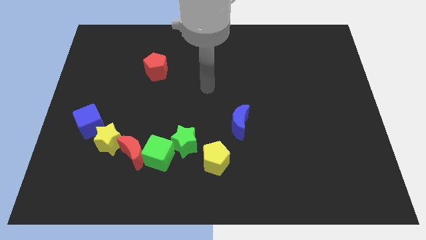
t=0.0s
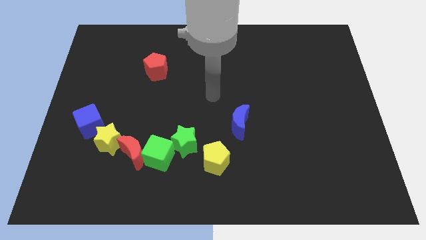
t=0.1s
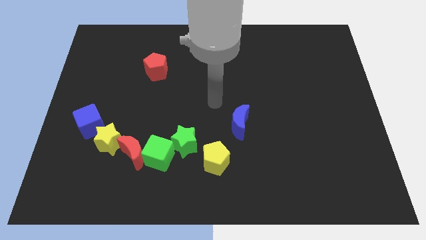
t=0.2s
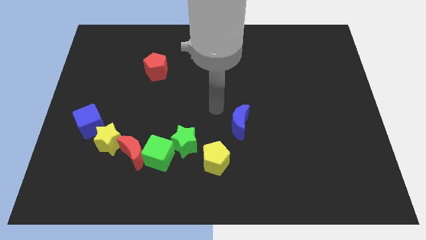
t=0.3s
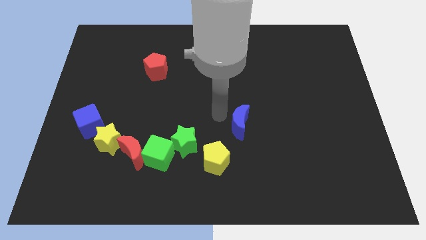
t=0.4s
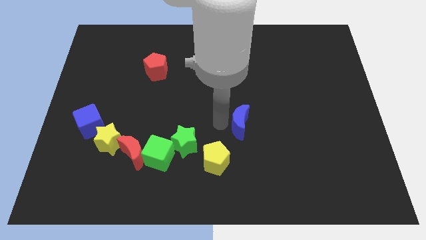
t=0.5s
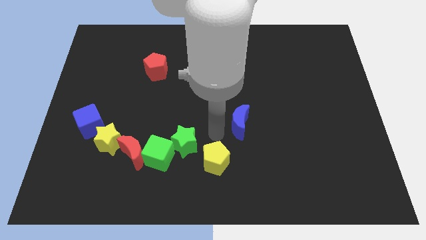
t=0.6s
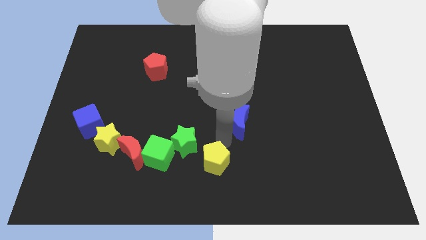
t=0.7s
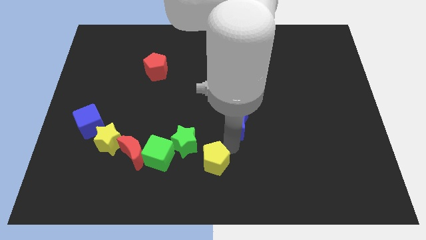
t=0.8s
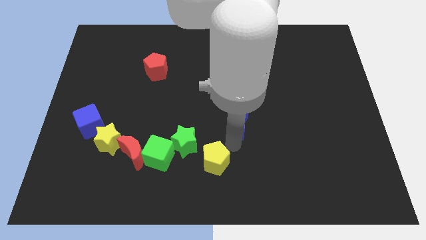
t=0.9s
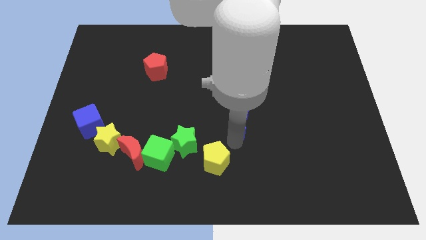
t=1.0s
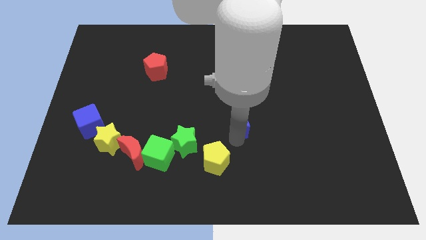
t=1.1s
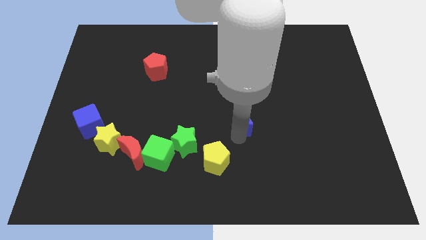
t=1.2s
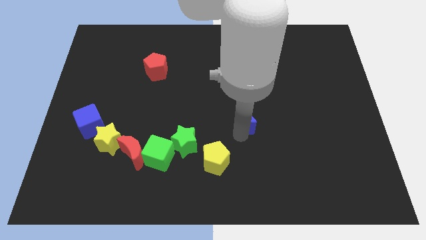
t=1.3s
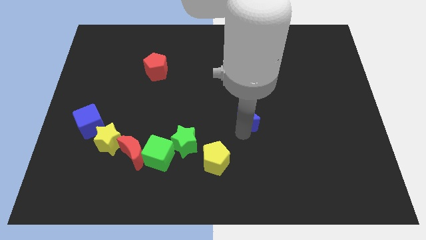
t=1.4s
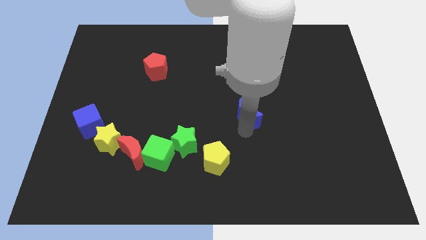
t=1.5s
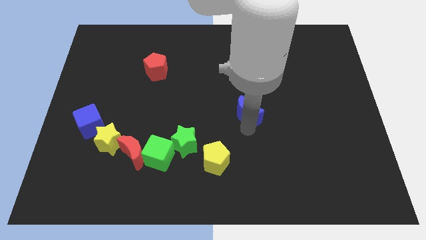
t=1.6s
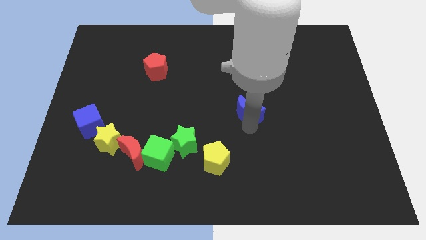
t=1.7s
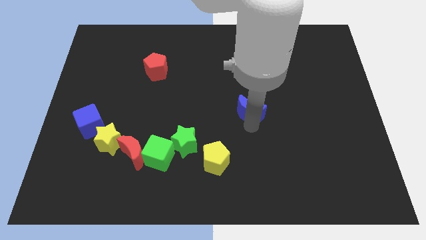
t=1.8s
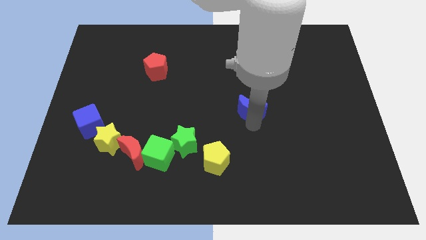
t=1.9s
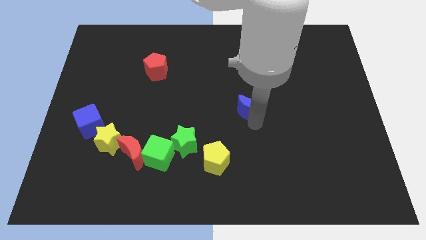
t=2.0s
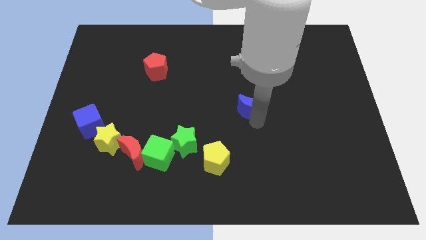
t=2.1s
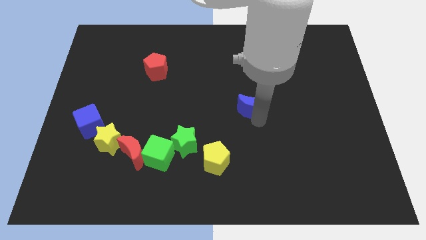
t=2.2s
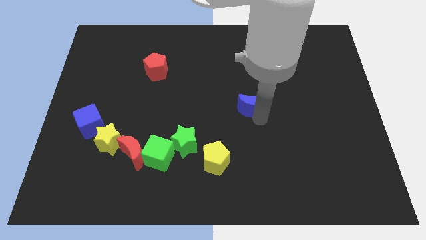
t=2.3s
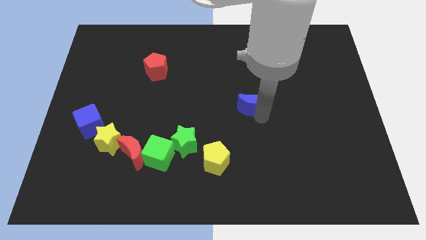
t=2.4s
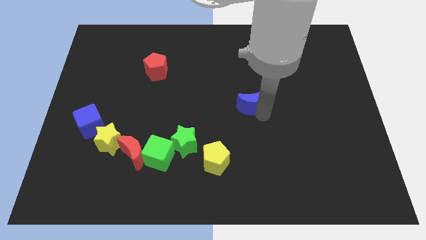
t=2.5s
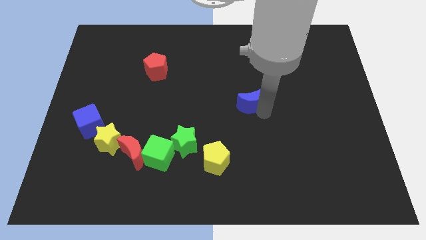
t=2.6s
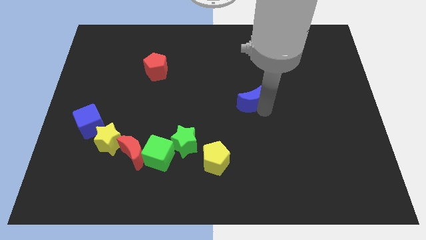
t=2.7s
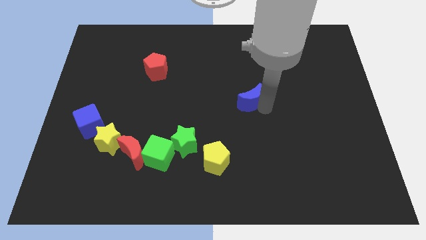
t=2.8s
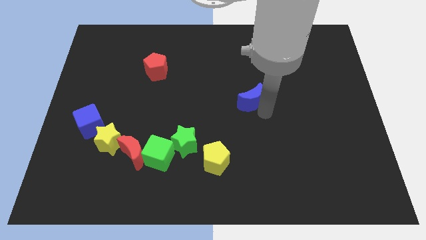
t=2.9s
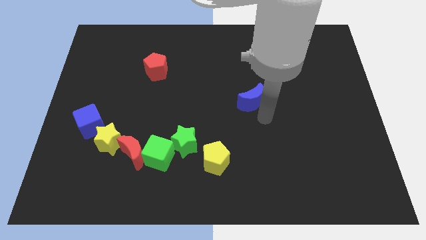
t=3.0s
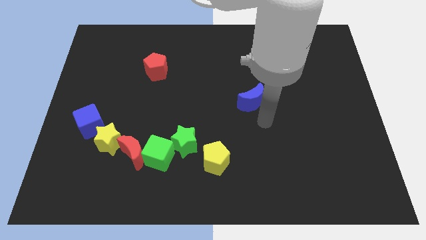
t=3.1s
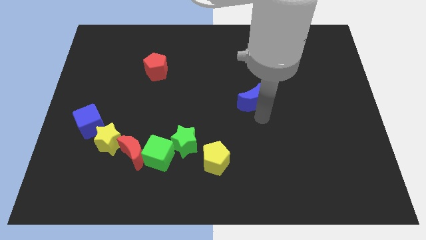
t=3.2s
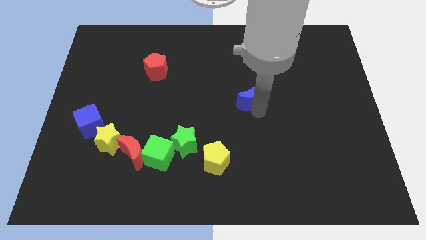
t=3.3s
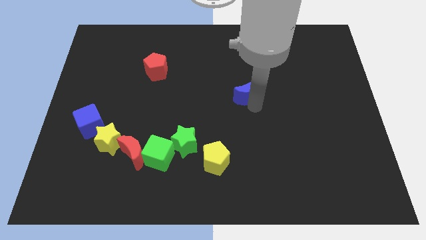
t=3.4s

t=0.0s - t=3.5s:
move the blue moon up a little bit

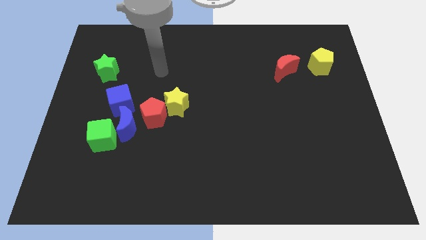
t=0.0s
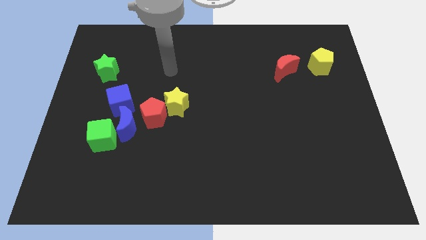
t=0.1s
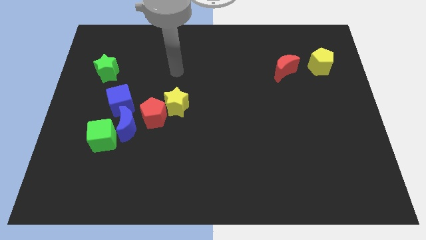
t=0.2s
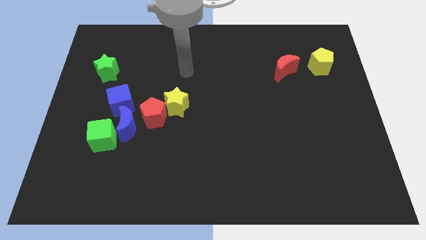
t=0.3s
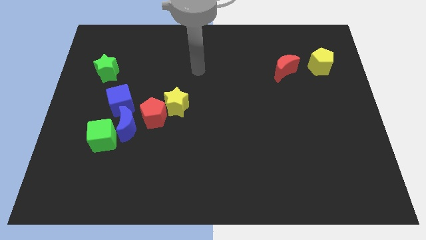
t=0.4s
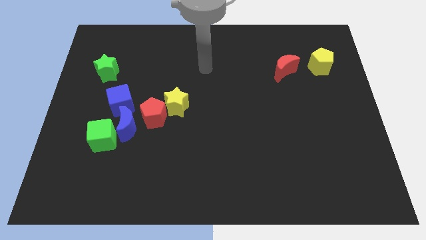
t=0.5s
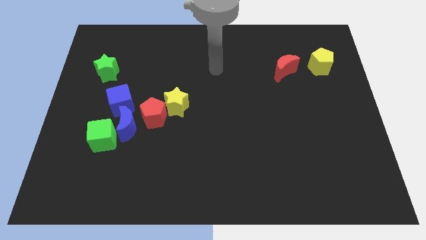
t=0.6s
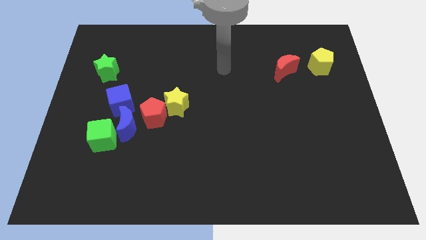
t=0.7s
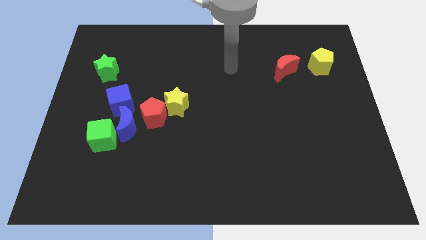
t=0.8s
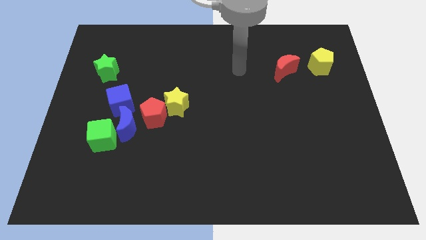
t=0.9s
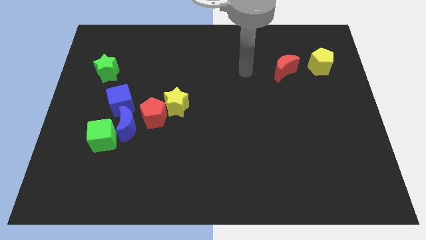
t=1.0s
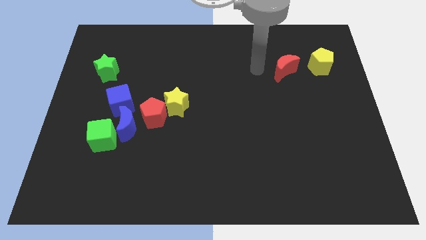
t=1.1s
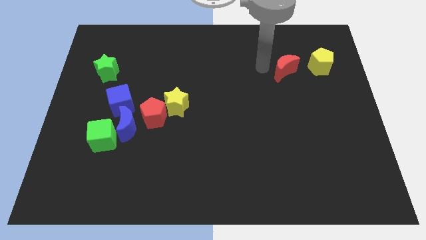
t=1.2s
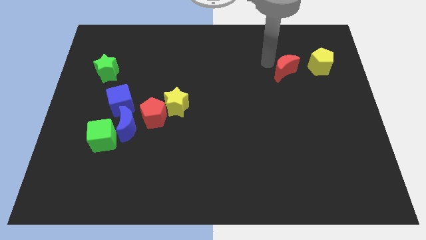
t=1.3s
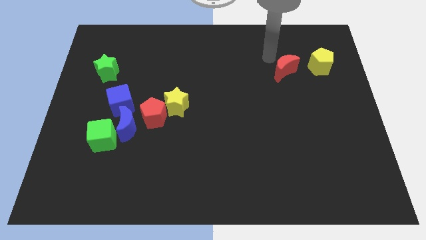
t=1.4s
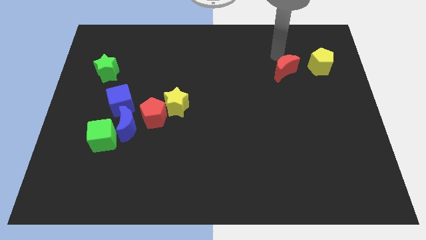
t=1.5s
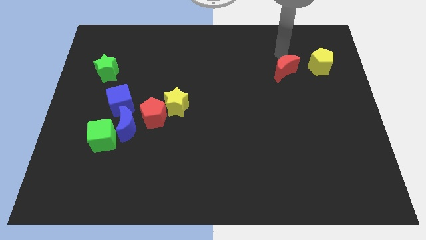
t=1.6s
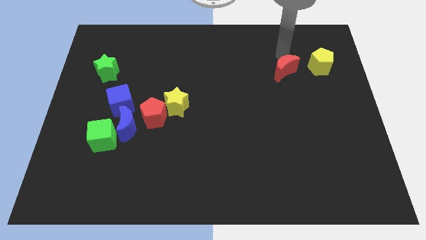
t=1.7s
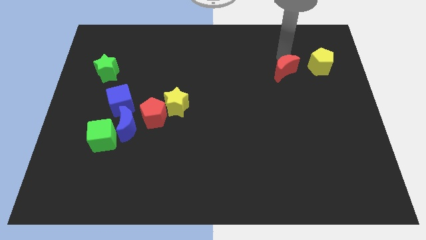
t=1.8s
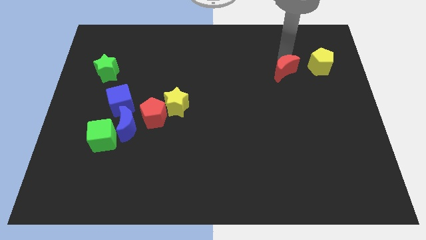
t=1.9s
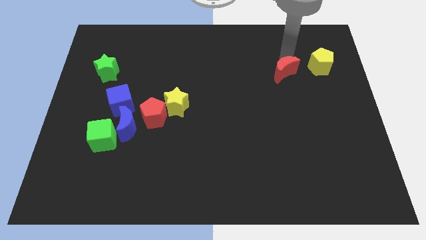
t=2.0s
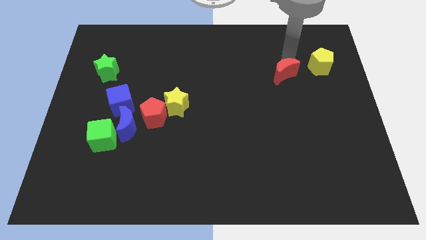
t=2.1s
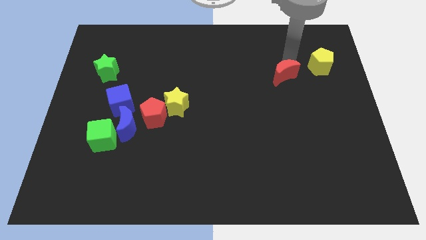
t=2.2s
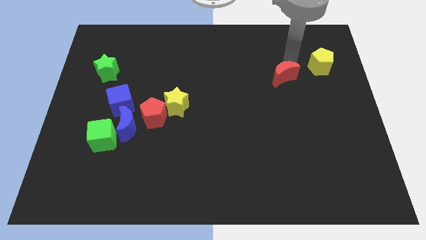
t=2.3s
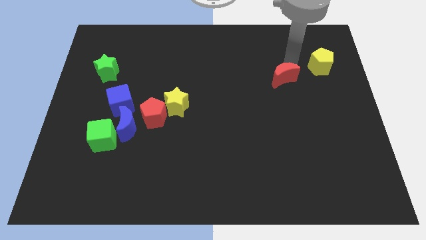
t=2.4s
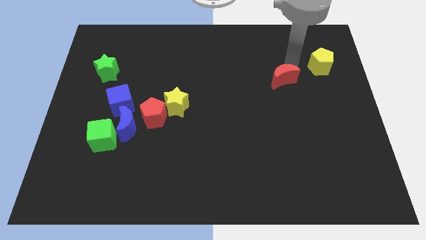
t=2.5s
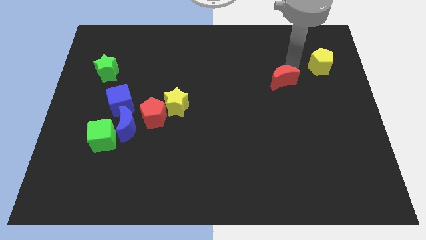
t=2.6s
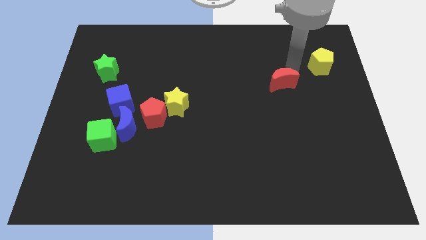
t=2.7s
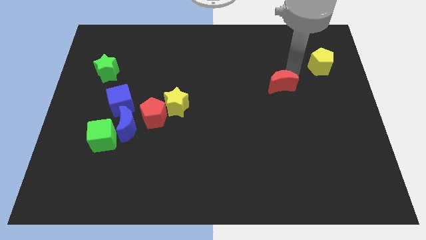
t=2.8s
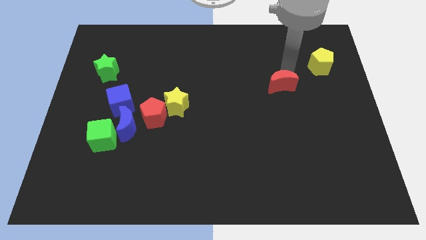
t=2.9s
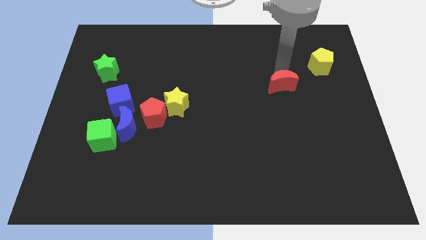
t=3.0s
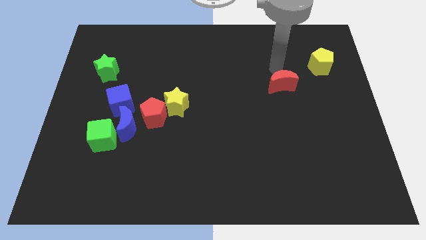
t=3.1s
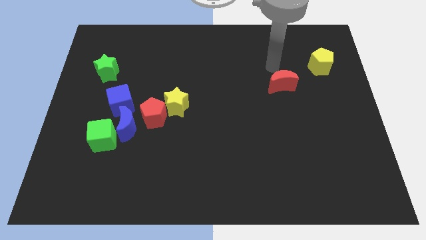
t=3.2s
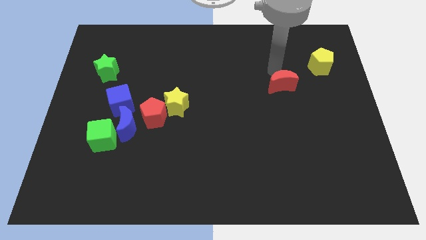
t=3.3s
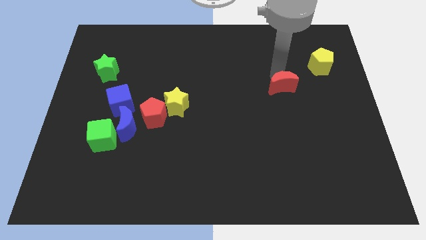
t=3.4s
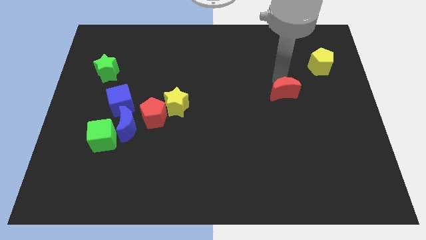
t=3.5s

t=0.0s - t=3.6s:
push the red moon a little down

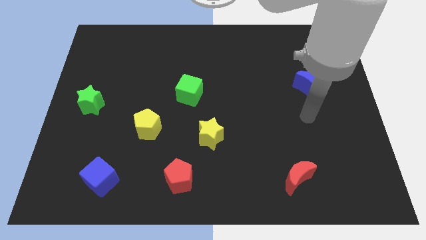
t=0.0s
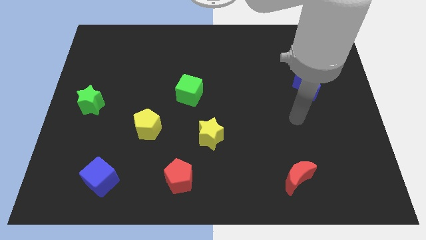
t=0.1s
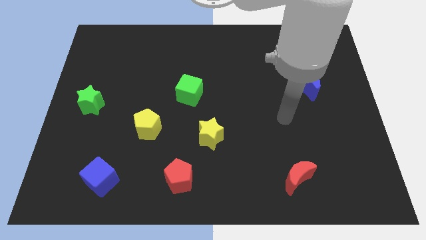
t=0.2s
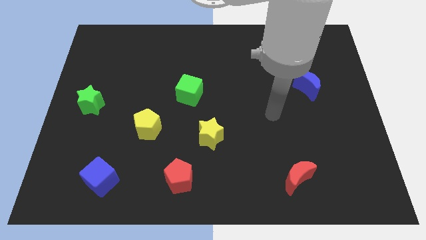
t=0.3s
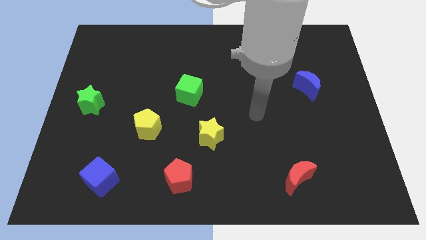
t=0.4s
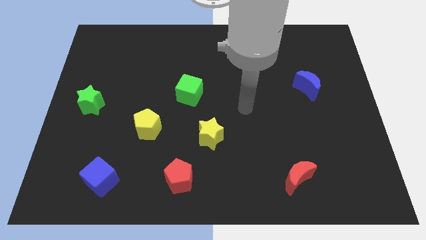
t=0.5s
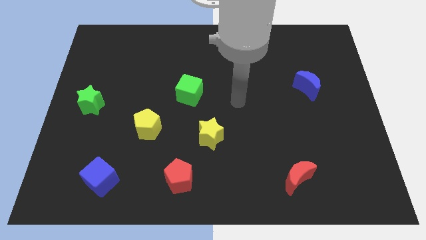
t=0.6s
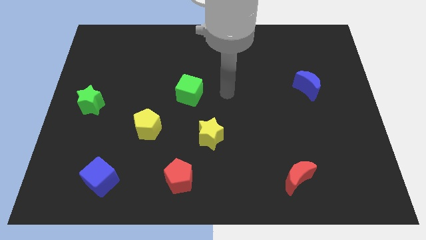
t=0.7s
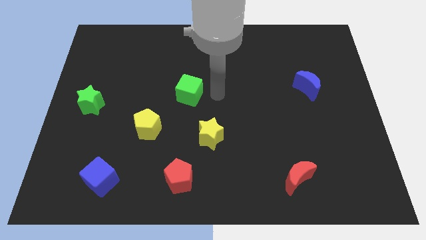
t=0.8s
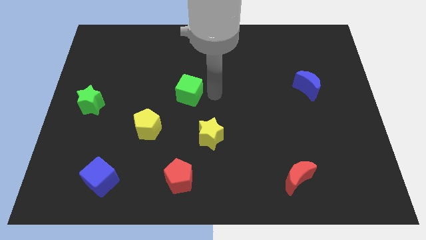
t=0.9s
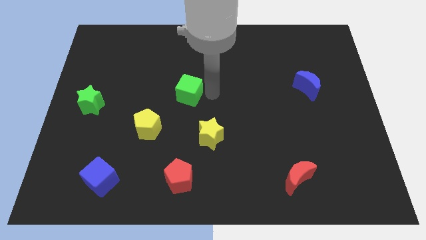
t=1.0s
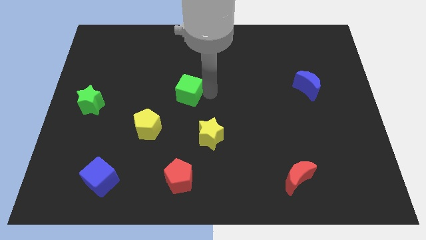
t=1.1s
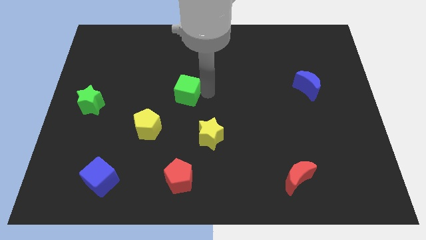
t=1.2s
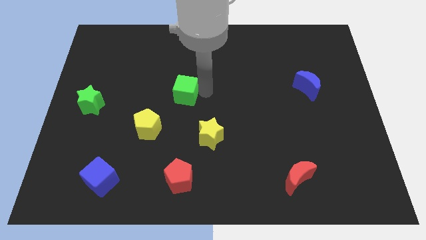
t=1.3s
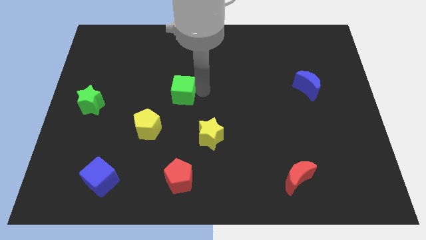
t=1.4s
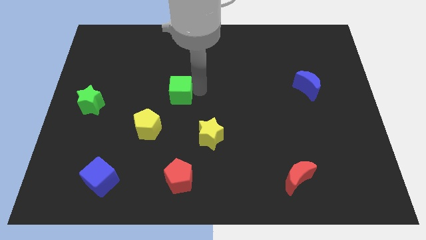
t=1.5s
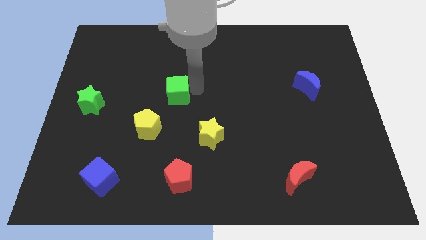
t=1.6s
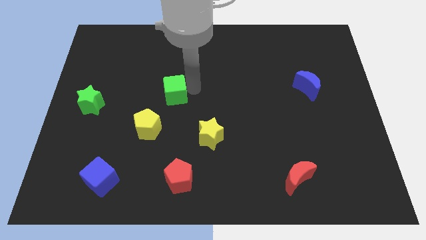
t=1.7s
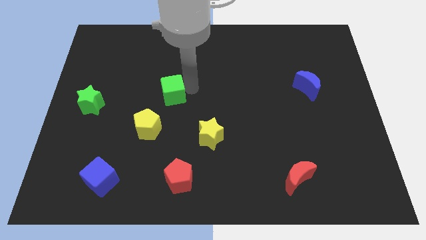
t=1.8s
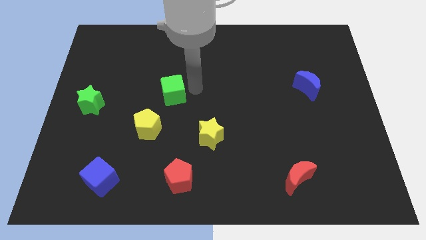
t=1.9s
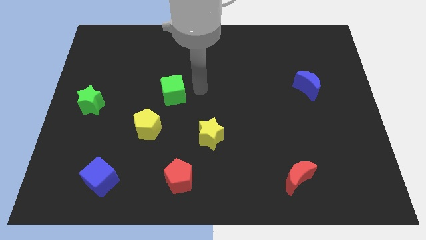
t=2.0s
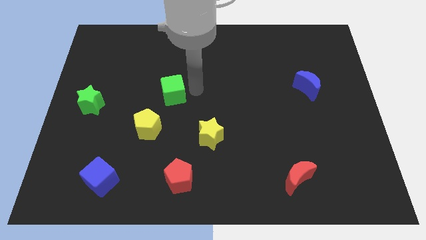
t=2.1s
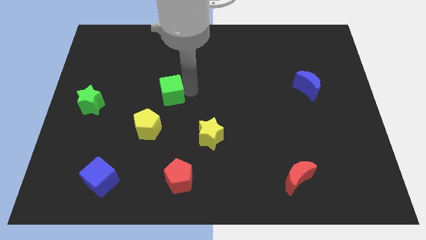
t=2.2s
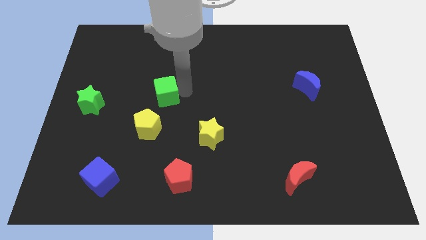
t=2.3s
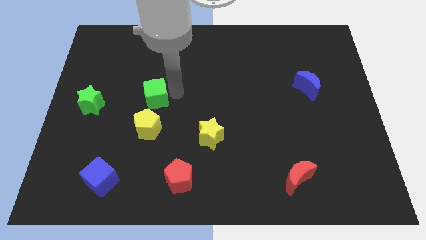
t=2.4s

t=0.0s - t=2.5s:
push the green cube a little bit to the left
